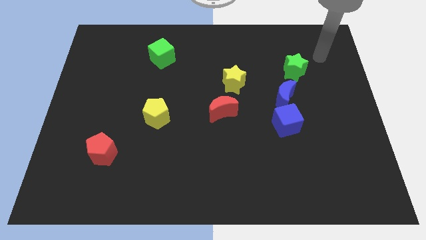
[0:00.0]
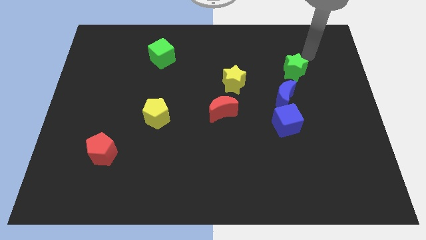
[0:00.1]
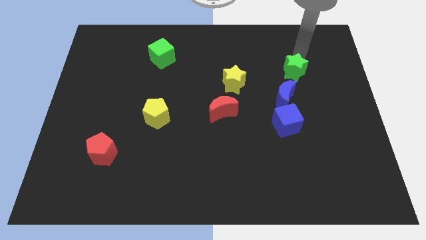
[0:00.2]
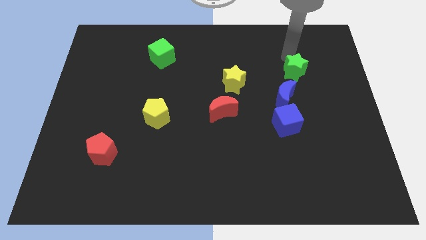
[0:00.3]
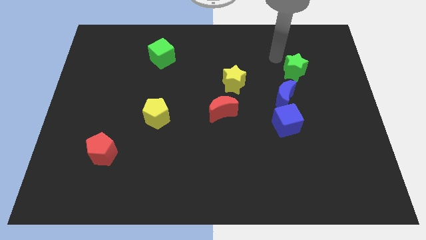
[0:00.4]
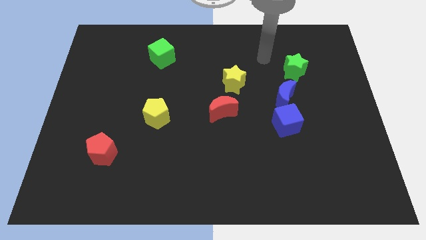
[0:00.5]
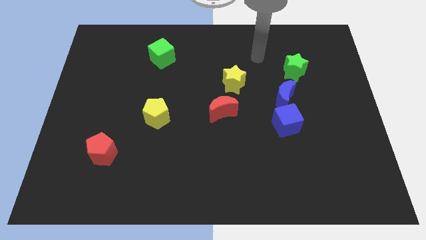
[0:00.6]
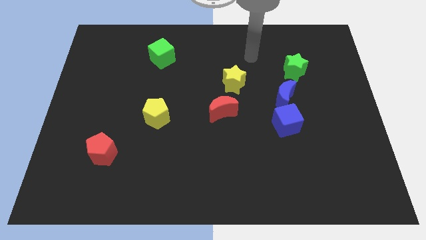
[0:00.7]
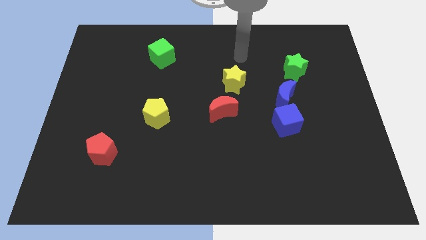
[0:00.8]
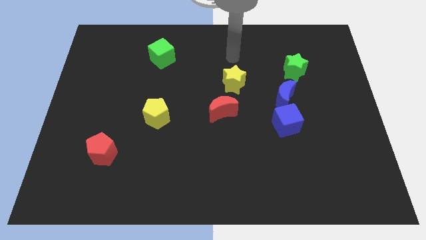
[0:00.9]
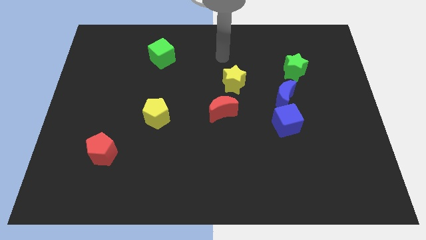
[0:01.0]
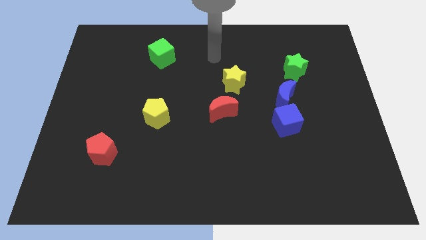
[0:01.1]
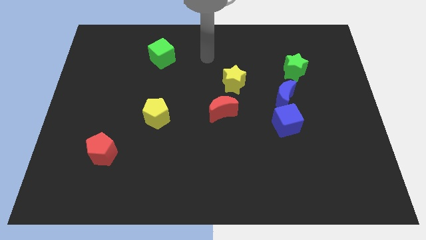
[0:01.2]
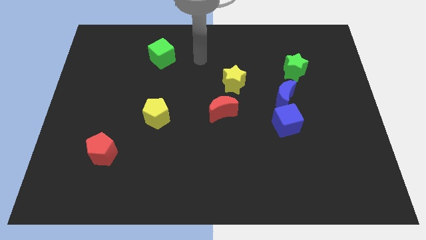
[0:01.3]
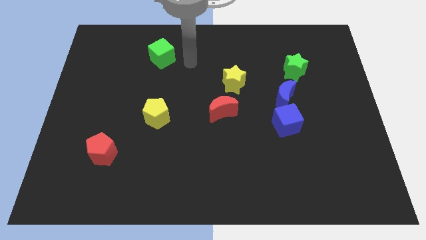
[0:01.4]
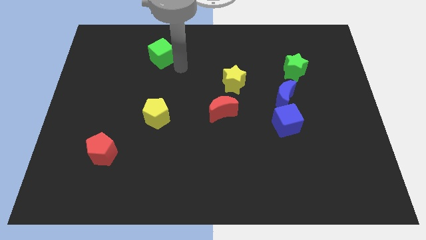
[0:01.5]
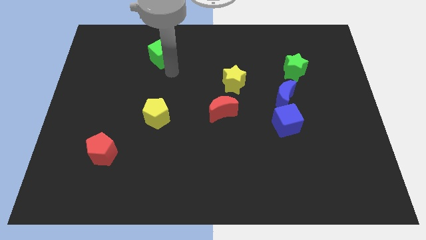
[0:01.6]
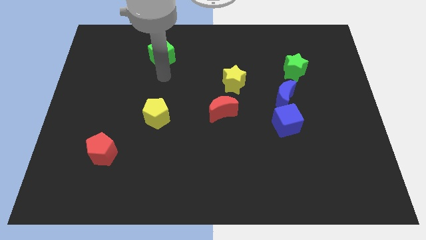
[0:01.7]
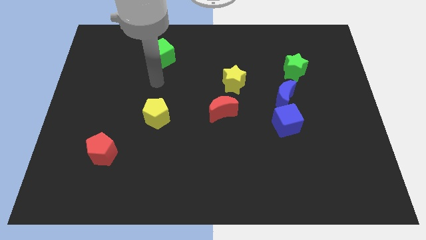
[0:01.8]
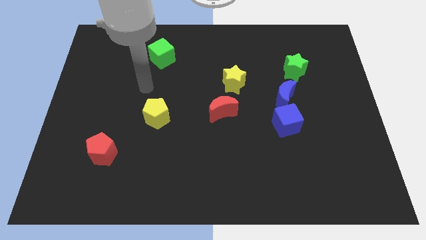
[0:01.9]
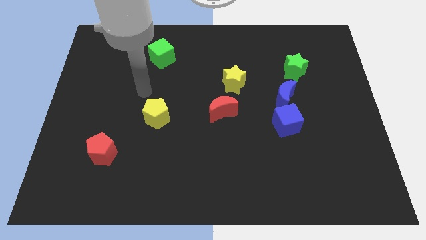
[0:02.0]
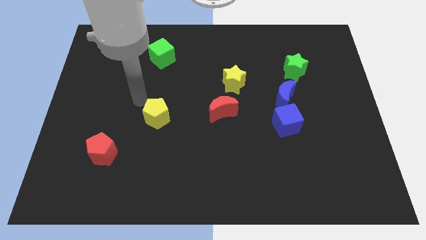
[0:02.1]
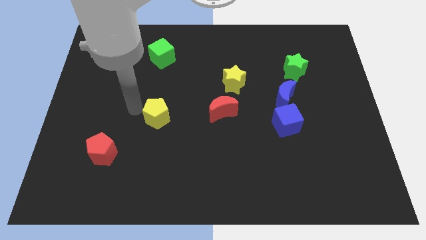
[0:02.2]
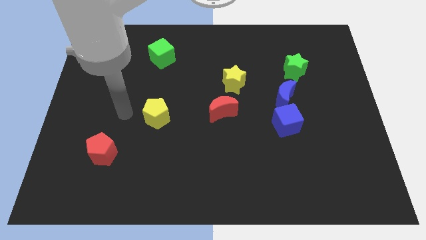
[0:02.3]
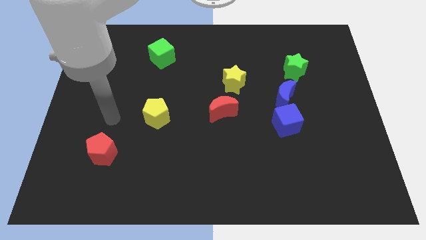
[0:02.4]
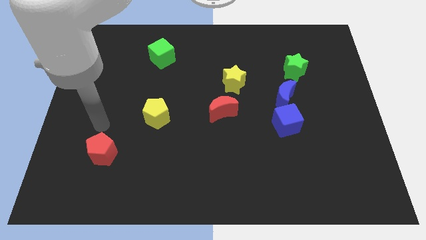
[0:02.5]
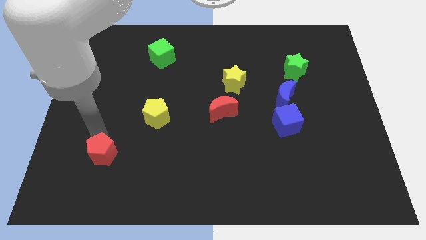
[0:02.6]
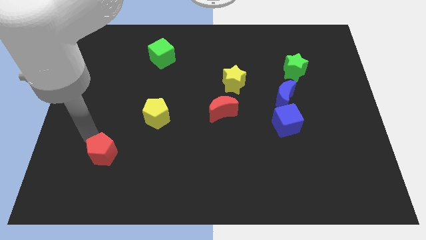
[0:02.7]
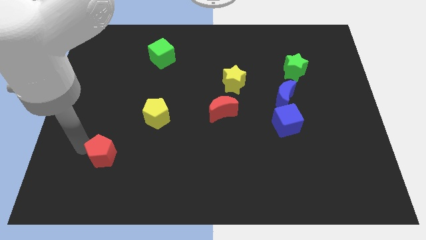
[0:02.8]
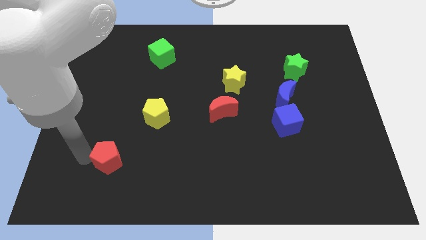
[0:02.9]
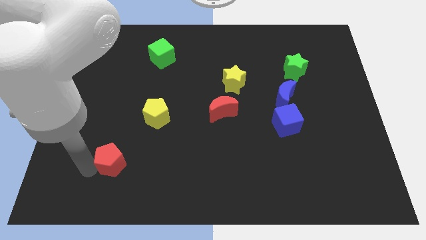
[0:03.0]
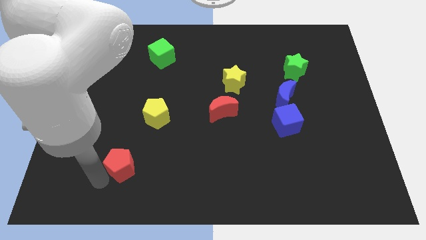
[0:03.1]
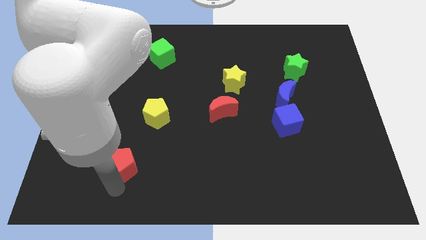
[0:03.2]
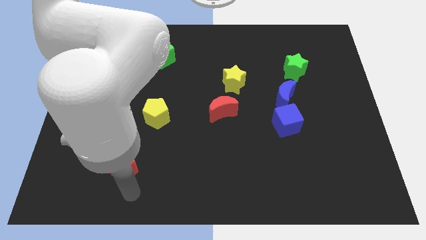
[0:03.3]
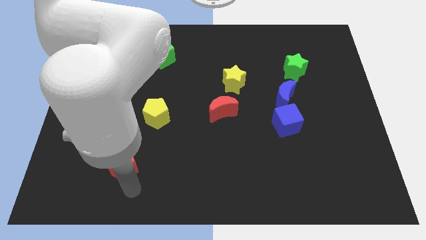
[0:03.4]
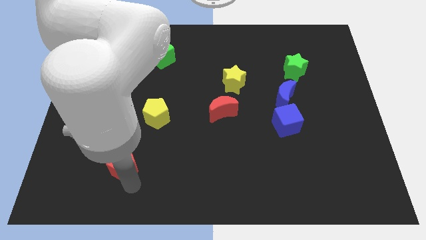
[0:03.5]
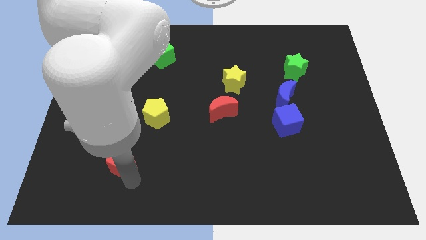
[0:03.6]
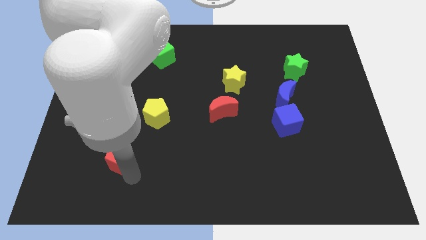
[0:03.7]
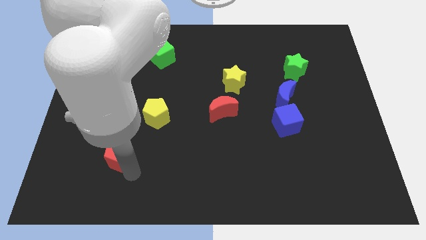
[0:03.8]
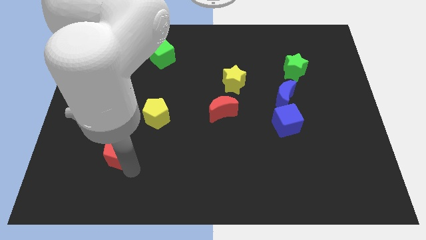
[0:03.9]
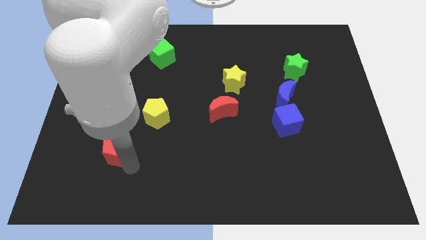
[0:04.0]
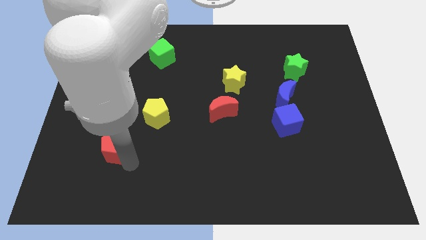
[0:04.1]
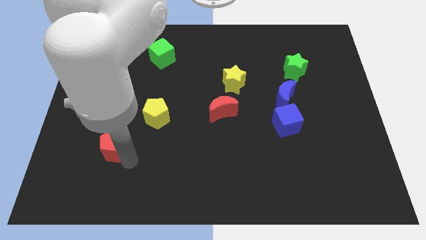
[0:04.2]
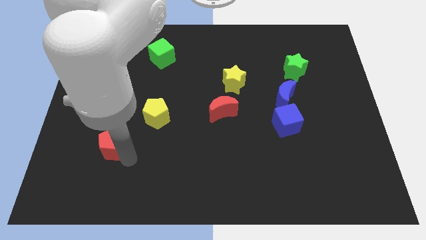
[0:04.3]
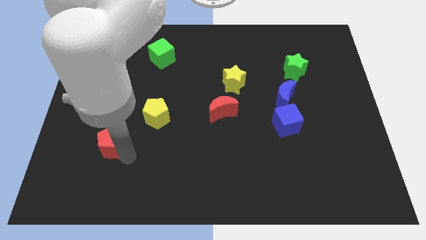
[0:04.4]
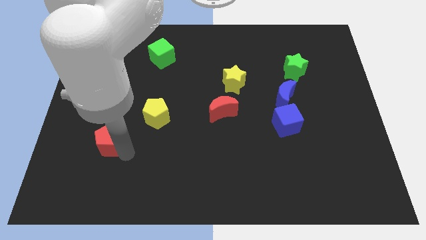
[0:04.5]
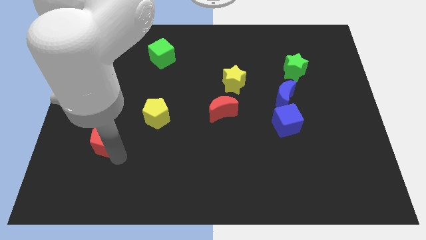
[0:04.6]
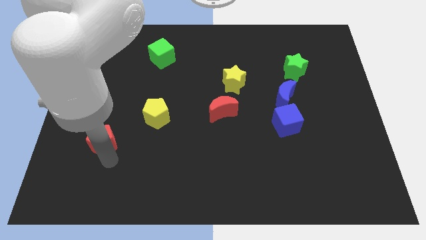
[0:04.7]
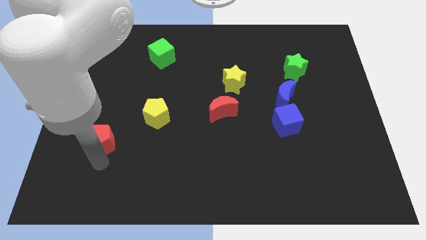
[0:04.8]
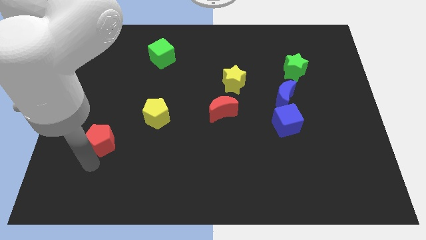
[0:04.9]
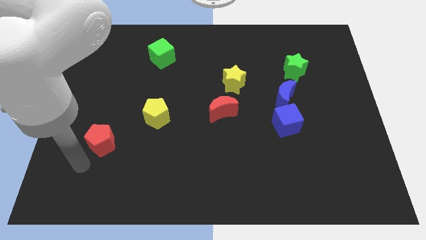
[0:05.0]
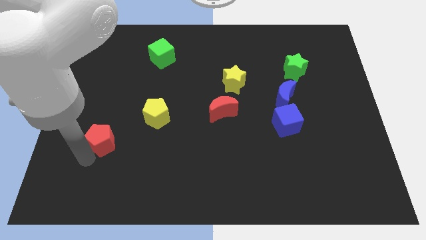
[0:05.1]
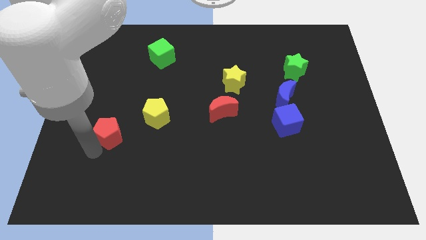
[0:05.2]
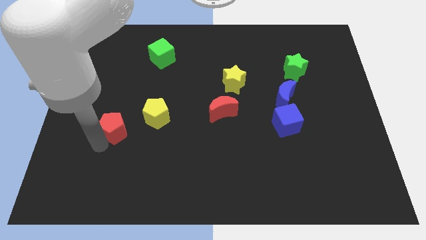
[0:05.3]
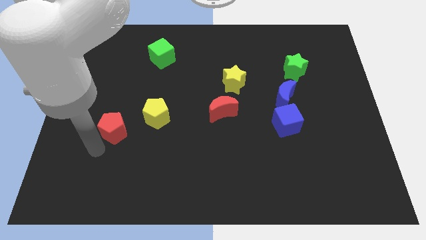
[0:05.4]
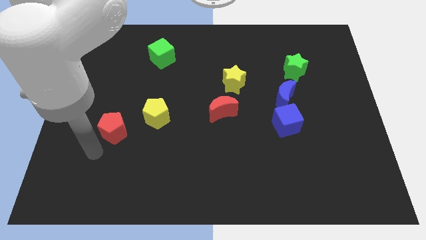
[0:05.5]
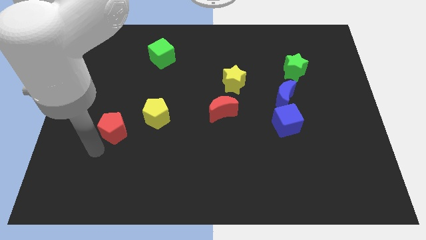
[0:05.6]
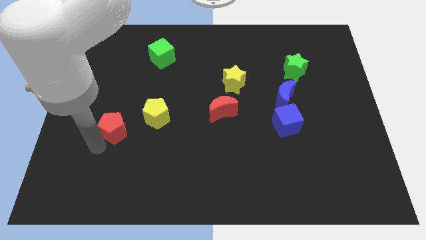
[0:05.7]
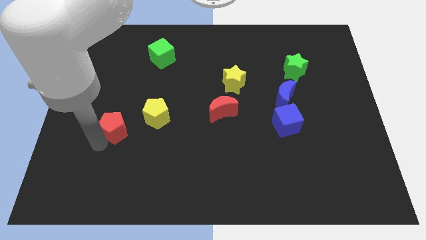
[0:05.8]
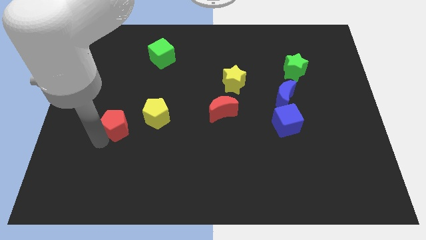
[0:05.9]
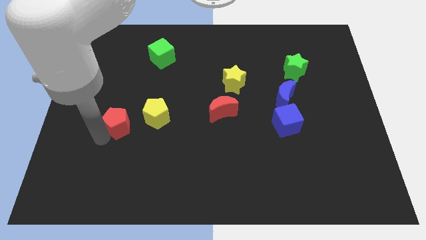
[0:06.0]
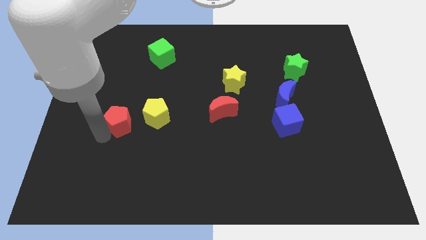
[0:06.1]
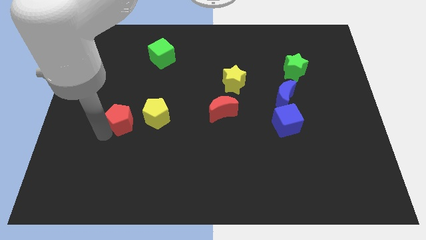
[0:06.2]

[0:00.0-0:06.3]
slightly move the red pentagon up and right

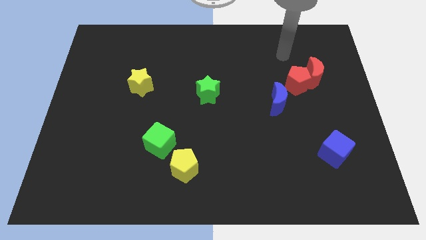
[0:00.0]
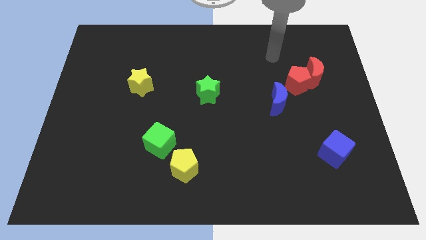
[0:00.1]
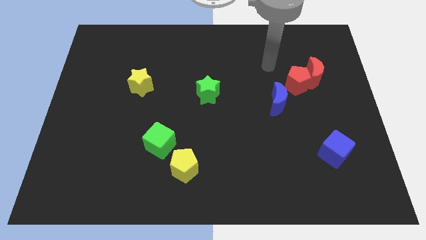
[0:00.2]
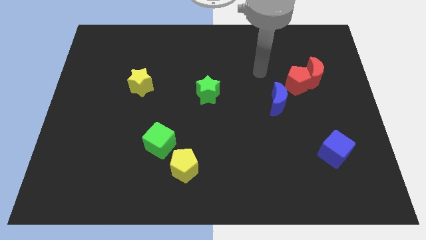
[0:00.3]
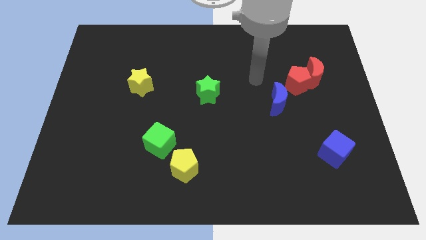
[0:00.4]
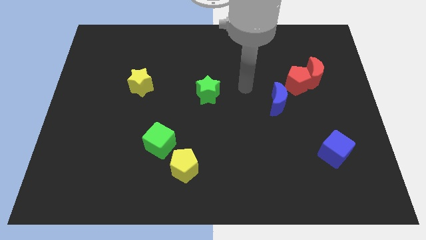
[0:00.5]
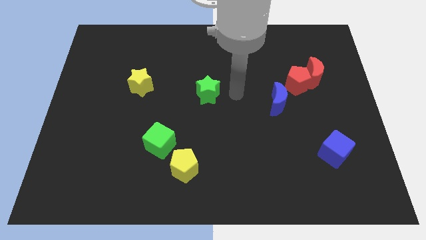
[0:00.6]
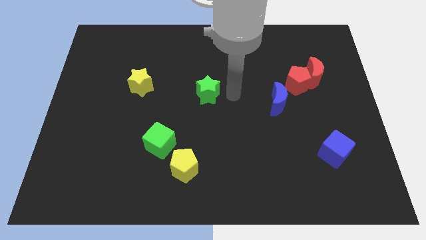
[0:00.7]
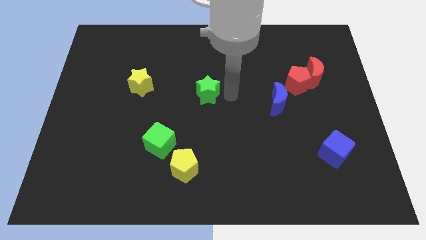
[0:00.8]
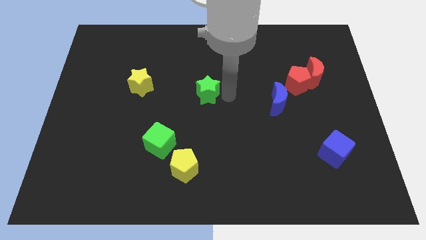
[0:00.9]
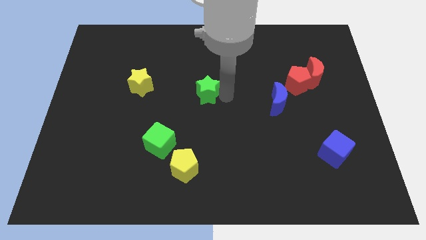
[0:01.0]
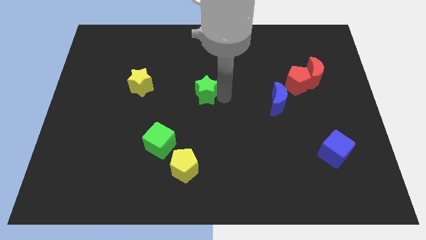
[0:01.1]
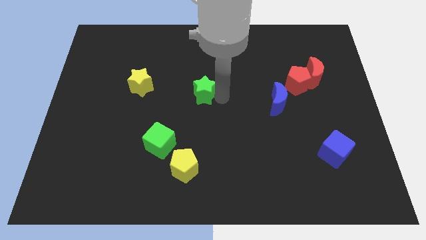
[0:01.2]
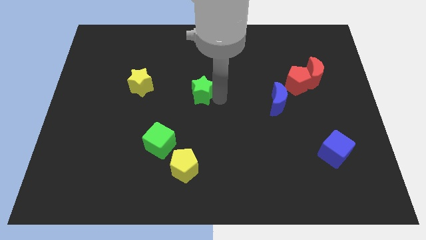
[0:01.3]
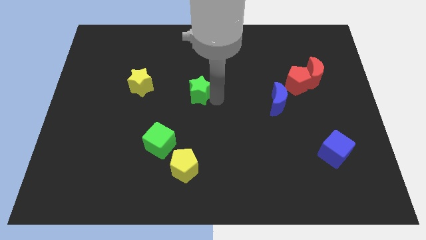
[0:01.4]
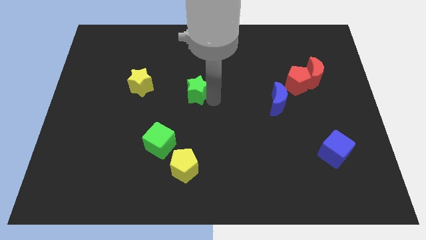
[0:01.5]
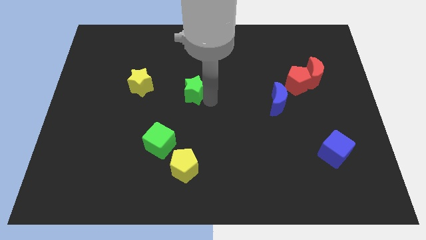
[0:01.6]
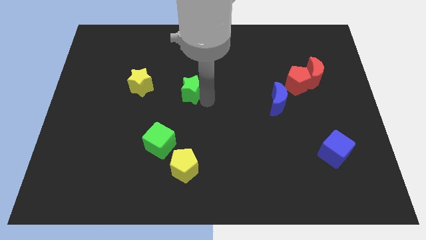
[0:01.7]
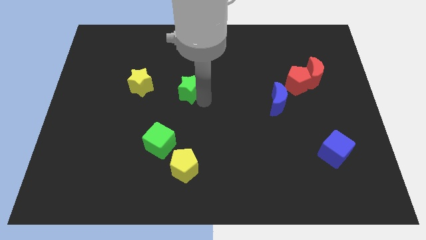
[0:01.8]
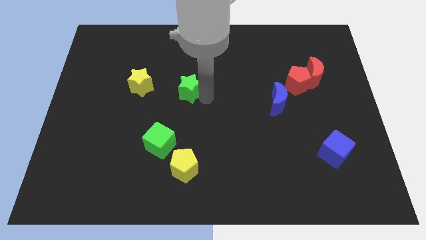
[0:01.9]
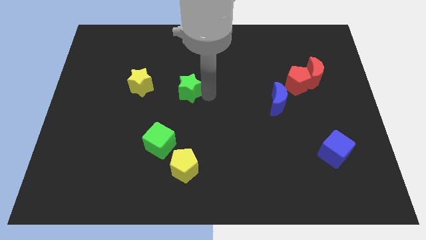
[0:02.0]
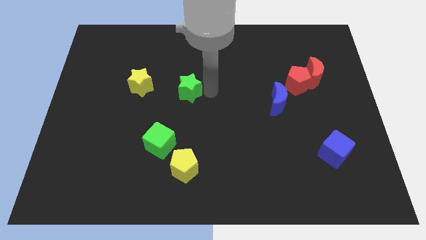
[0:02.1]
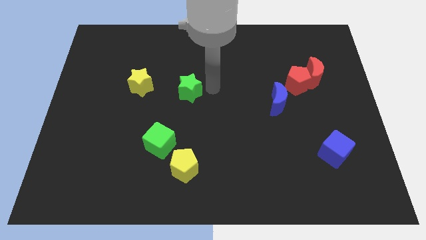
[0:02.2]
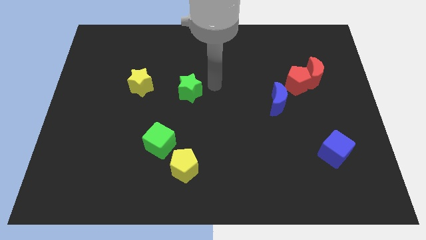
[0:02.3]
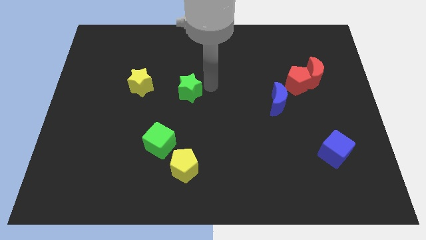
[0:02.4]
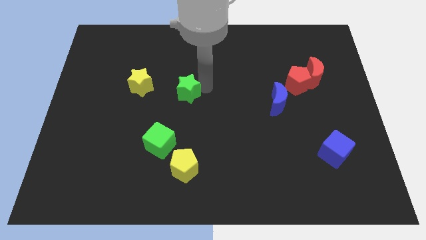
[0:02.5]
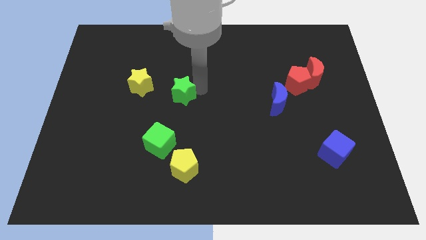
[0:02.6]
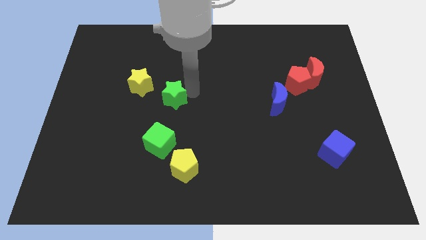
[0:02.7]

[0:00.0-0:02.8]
slide the green star a little bit left
